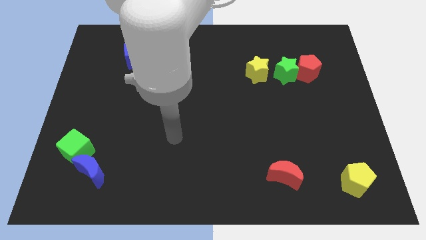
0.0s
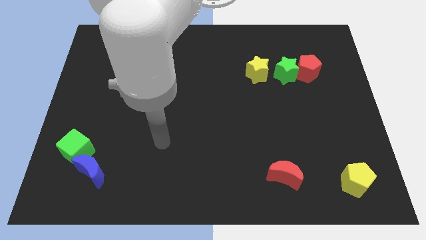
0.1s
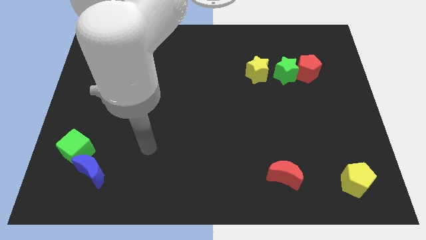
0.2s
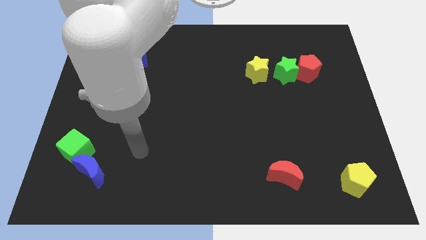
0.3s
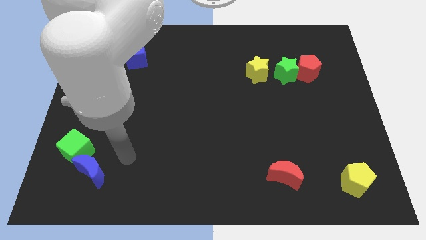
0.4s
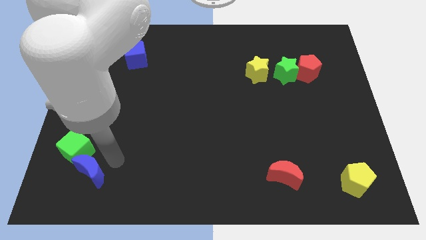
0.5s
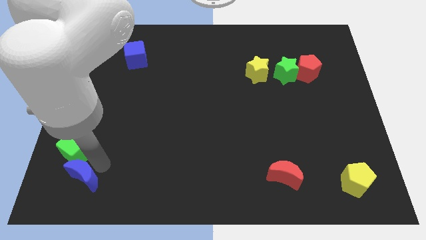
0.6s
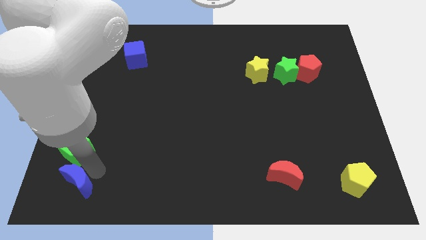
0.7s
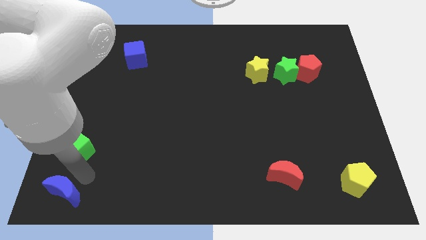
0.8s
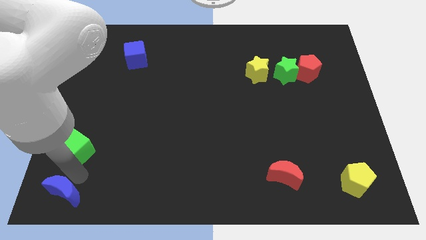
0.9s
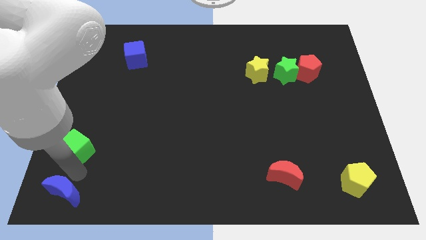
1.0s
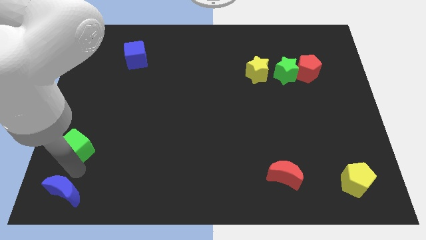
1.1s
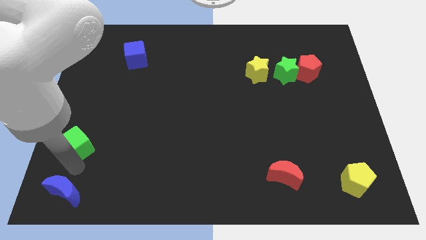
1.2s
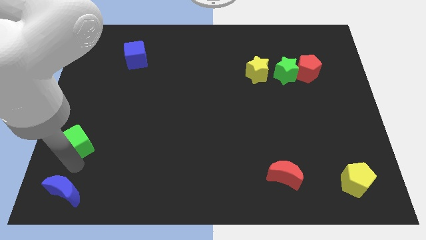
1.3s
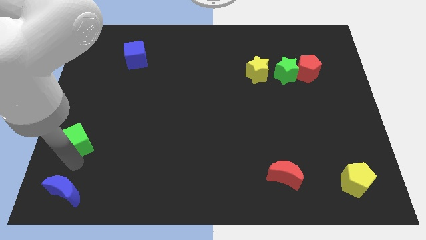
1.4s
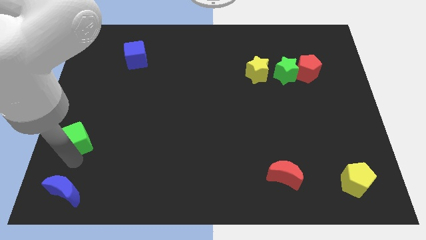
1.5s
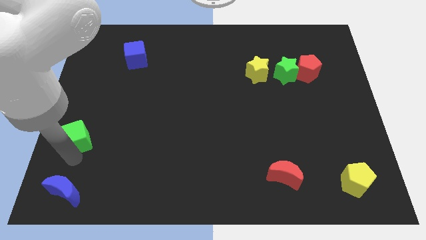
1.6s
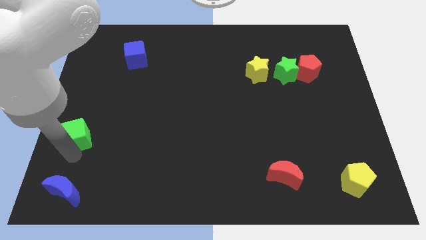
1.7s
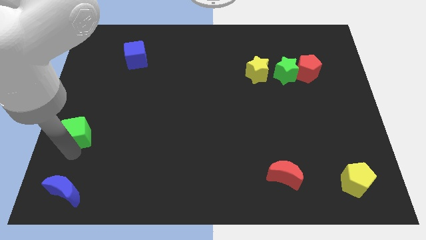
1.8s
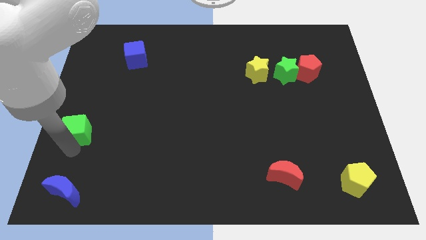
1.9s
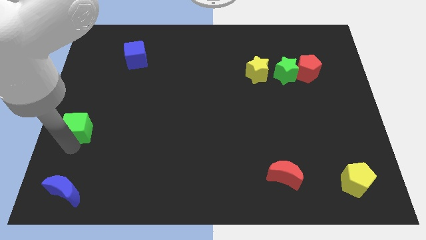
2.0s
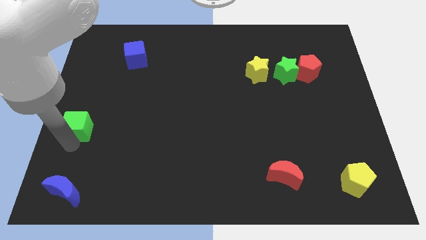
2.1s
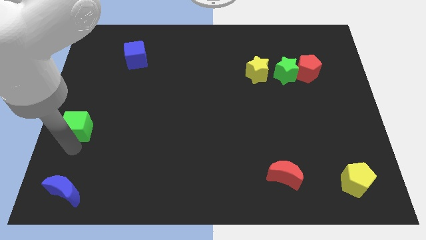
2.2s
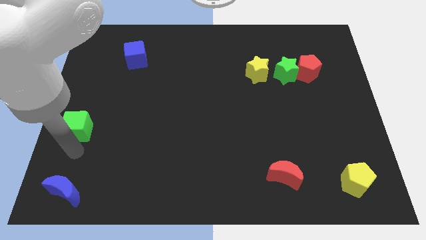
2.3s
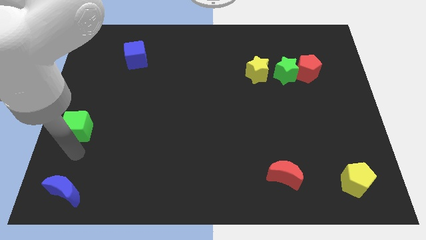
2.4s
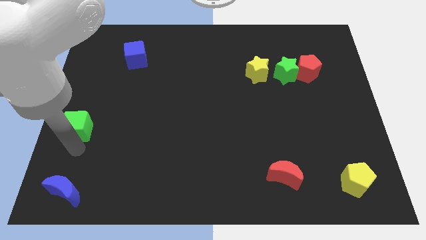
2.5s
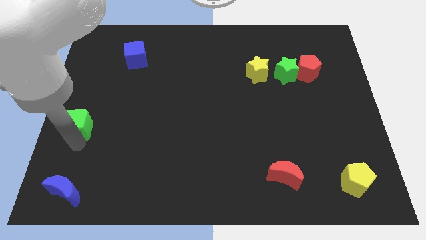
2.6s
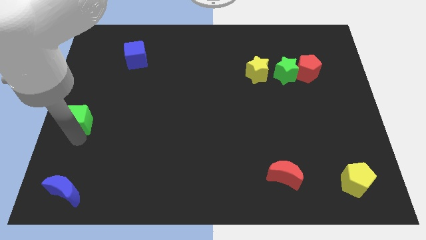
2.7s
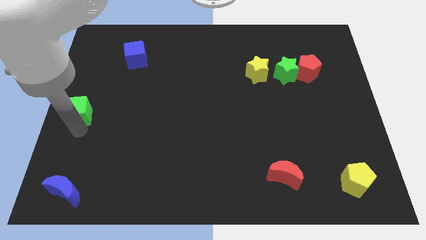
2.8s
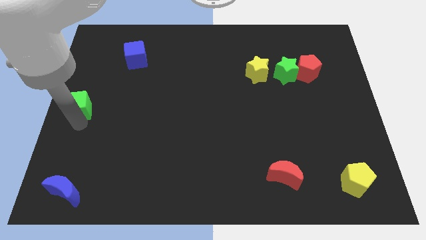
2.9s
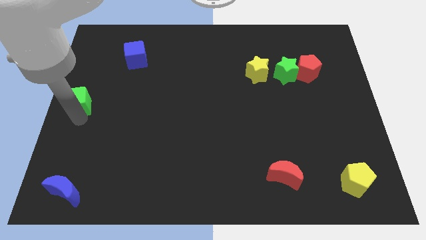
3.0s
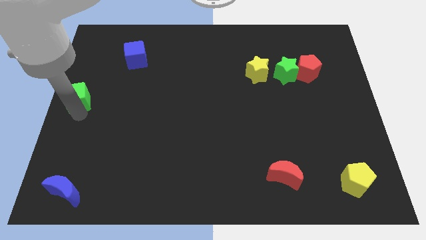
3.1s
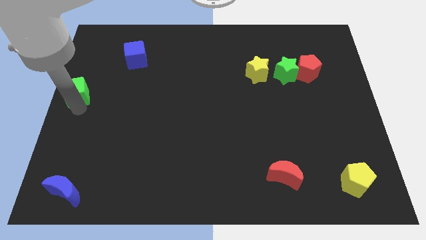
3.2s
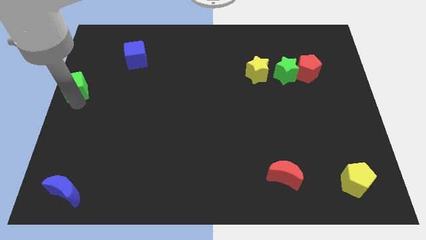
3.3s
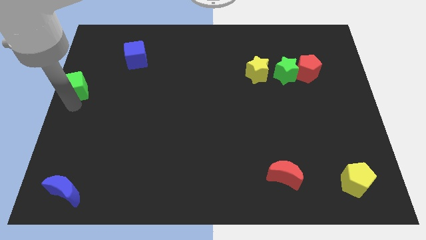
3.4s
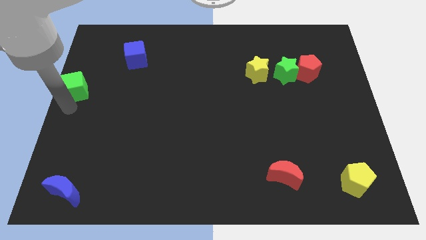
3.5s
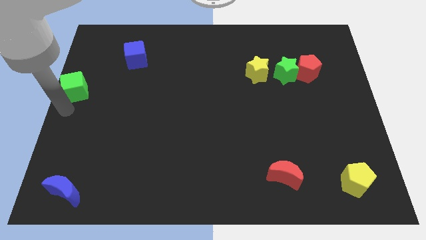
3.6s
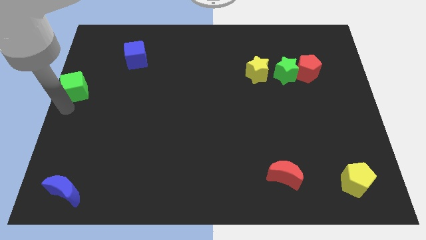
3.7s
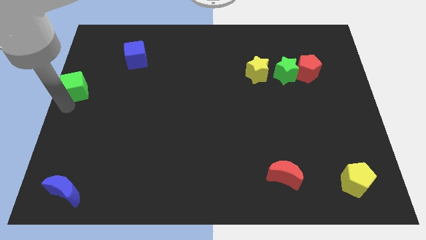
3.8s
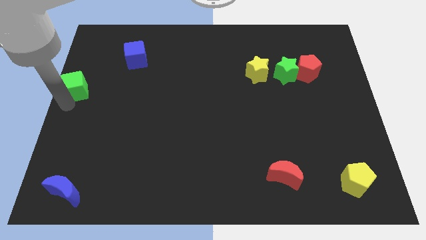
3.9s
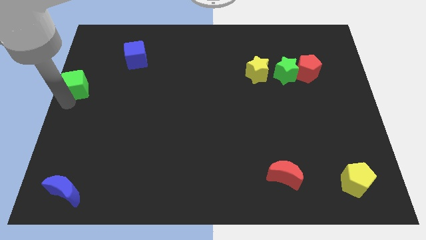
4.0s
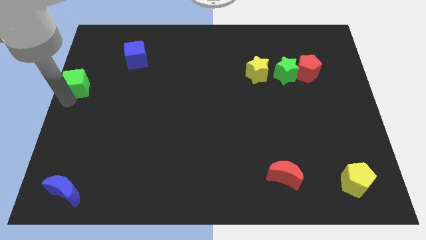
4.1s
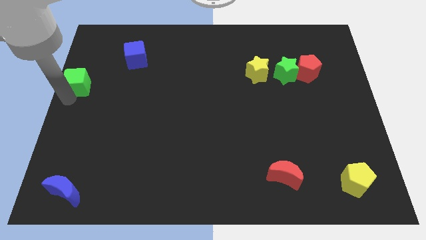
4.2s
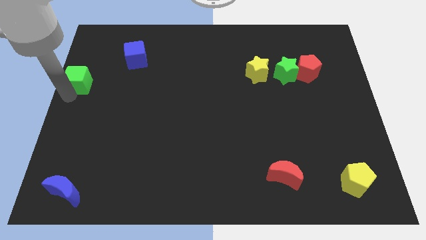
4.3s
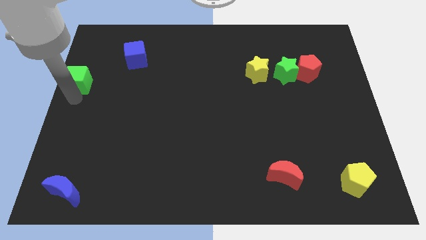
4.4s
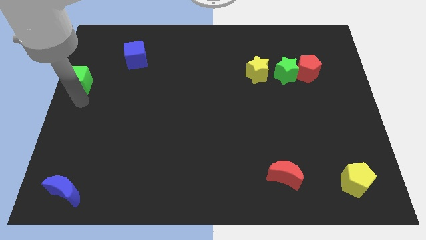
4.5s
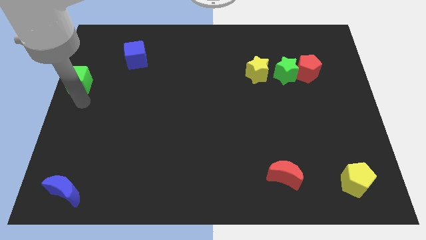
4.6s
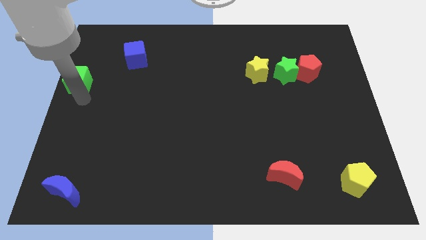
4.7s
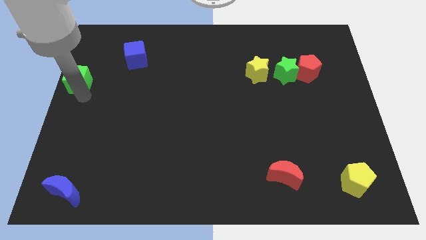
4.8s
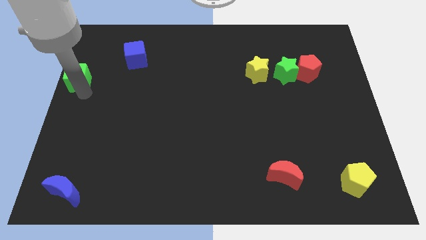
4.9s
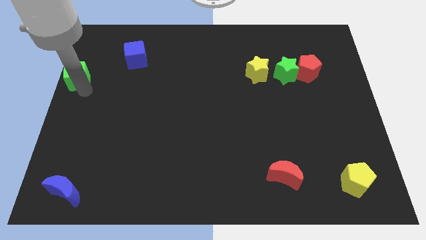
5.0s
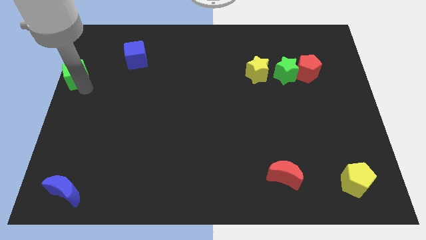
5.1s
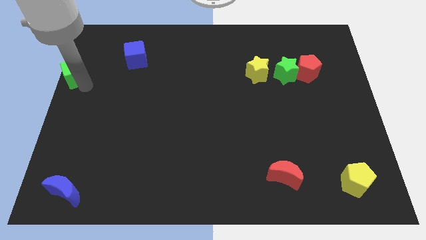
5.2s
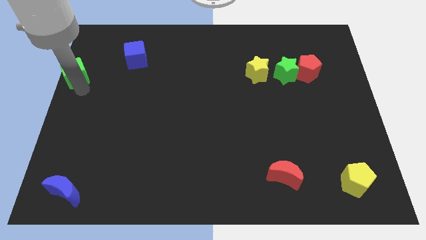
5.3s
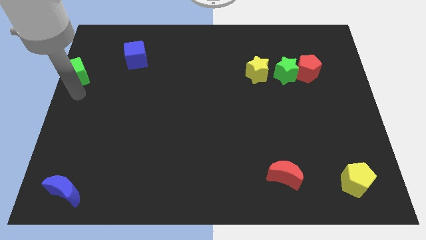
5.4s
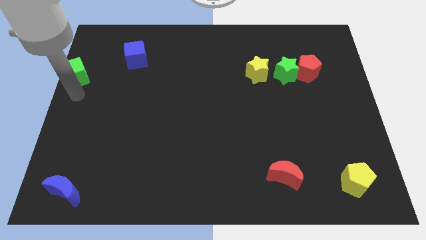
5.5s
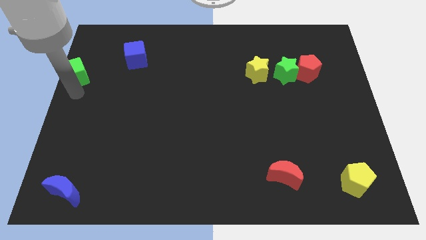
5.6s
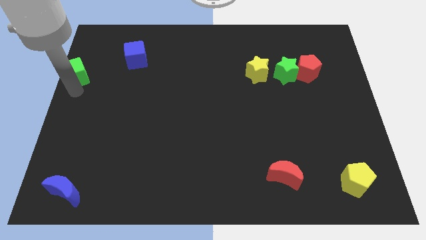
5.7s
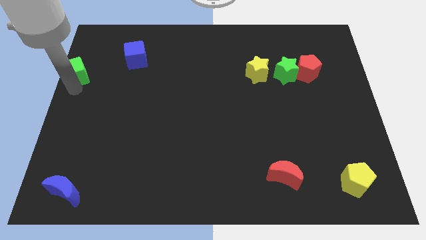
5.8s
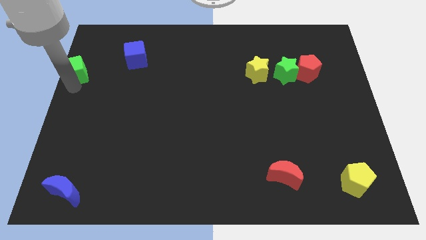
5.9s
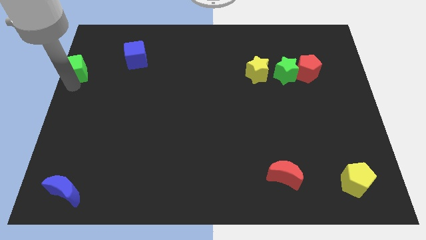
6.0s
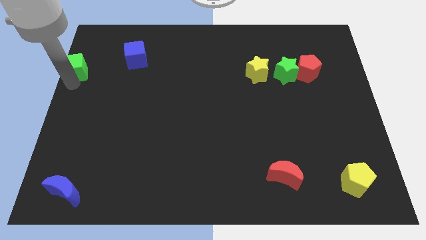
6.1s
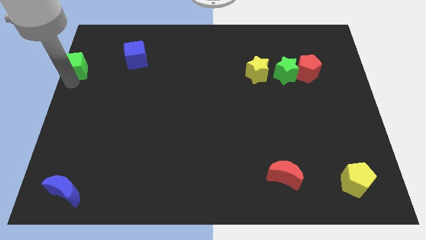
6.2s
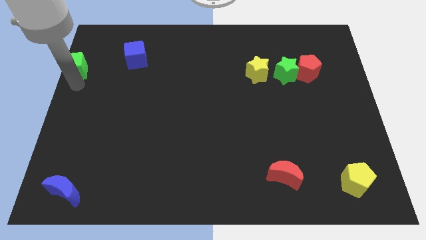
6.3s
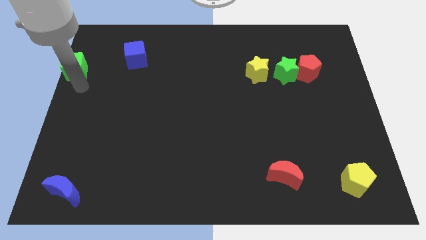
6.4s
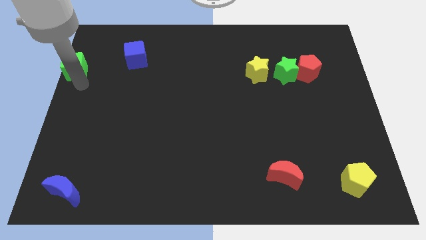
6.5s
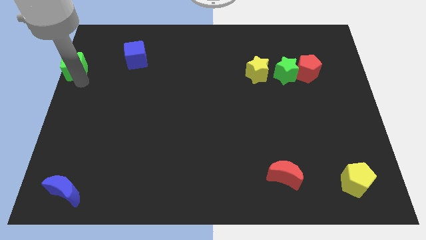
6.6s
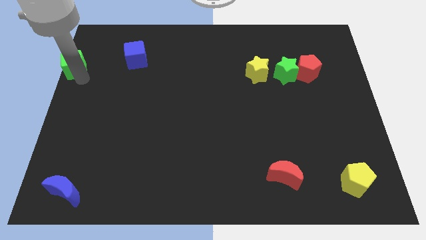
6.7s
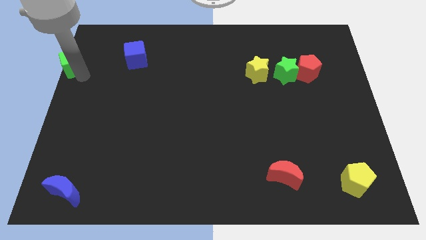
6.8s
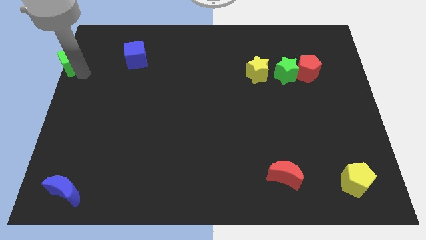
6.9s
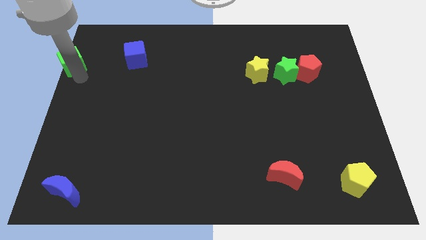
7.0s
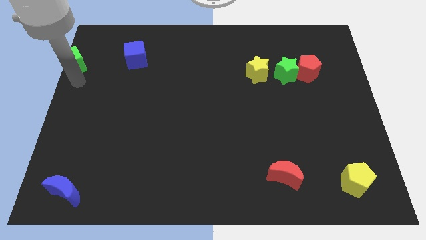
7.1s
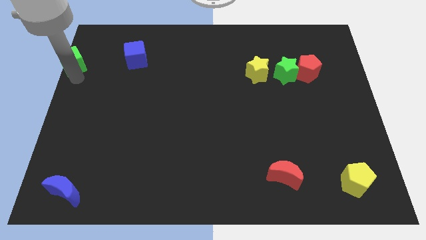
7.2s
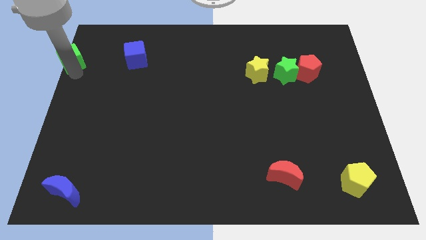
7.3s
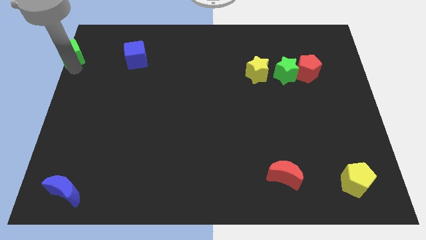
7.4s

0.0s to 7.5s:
put the green cube to the upper left corner
